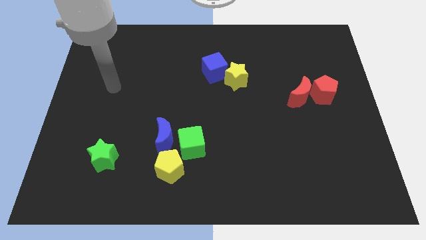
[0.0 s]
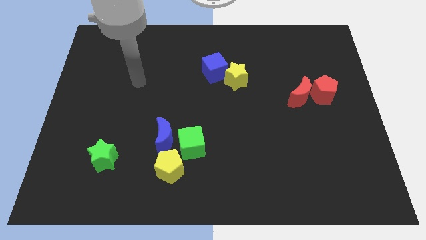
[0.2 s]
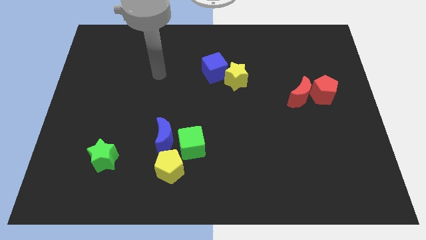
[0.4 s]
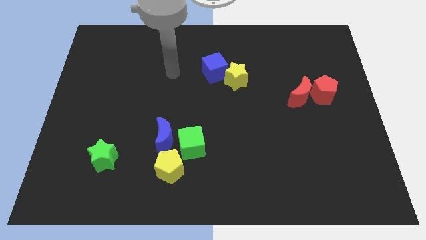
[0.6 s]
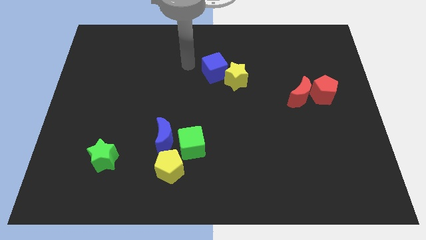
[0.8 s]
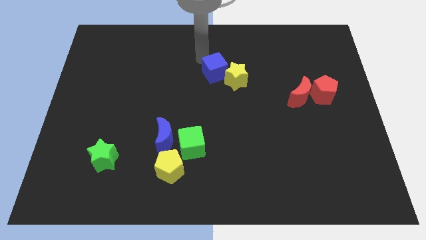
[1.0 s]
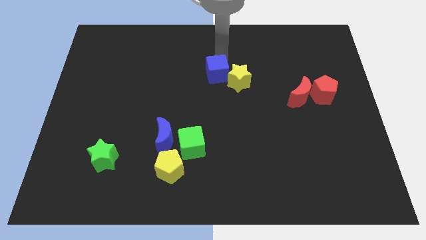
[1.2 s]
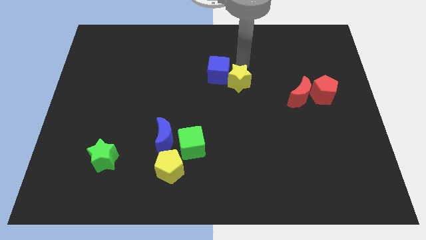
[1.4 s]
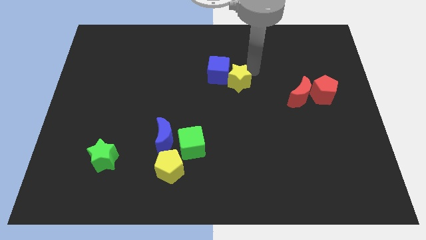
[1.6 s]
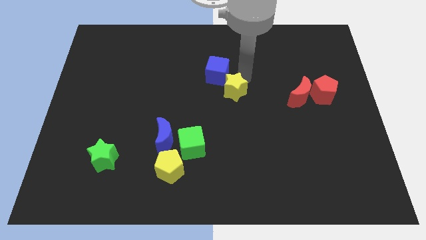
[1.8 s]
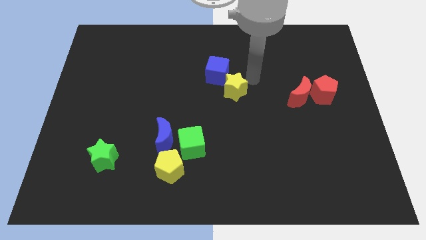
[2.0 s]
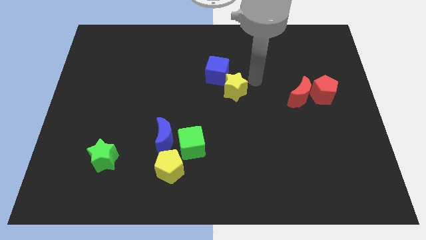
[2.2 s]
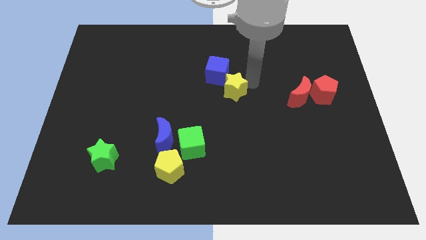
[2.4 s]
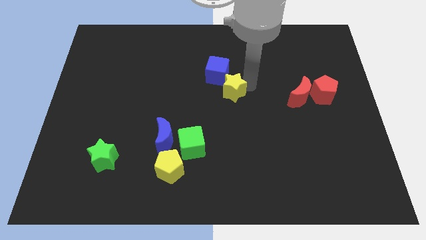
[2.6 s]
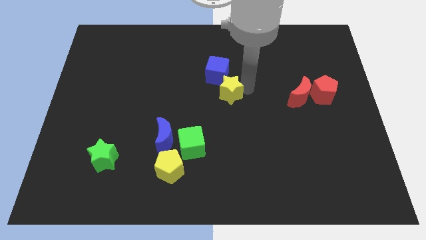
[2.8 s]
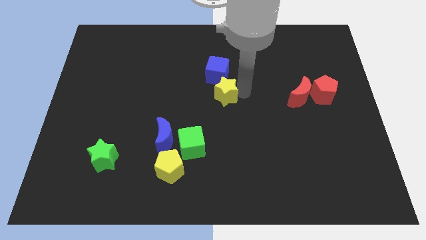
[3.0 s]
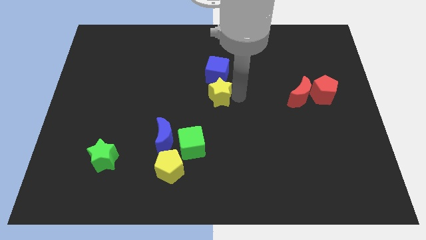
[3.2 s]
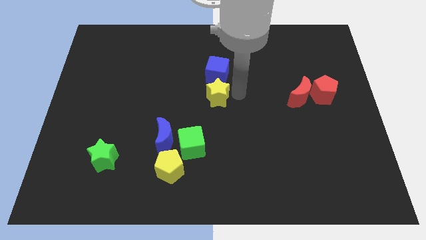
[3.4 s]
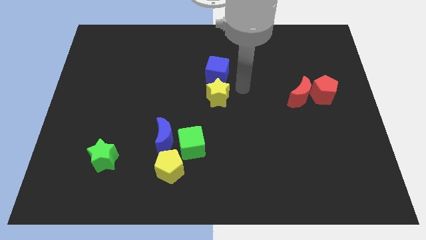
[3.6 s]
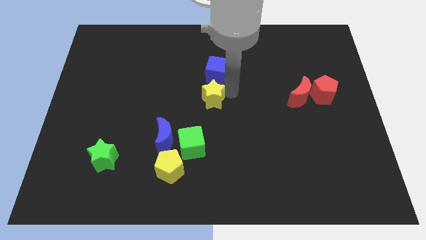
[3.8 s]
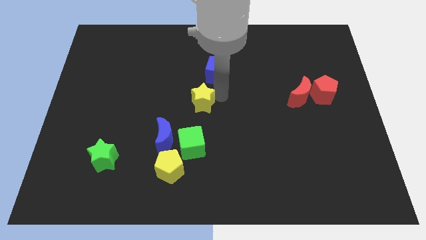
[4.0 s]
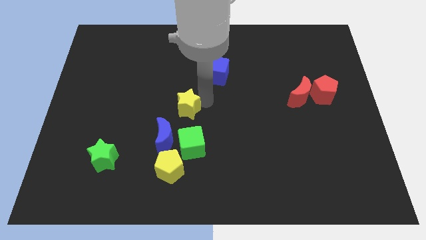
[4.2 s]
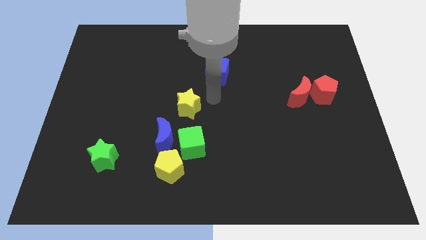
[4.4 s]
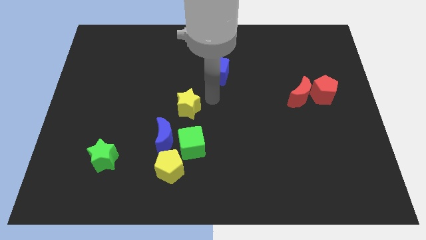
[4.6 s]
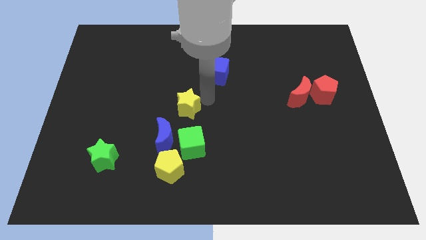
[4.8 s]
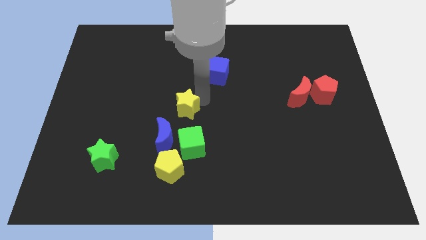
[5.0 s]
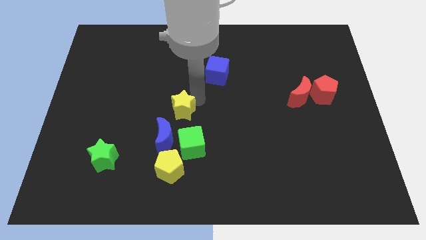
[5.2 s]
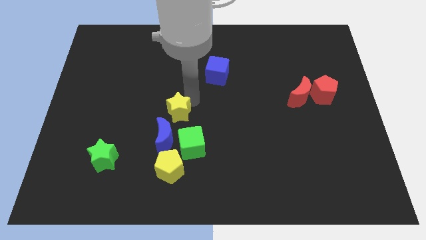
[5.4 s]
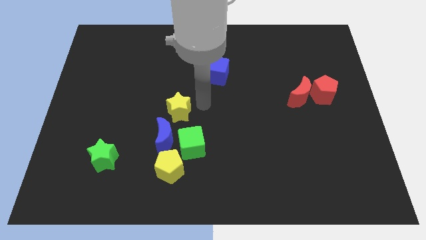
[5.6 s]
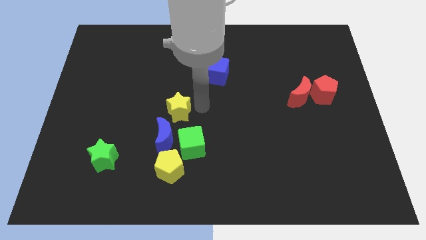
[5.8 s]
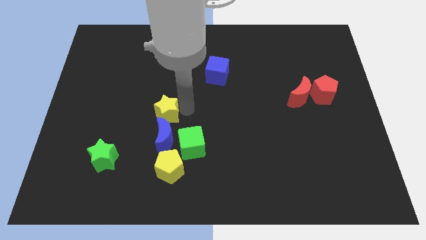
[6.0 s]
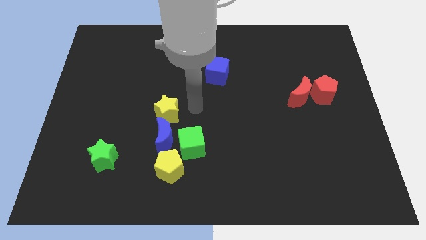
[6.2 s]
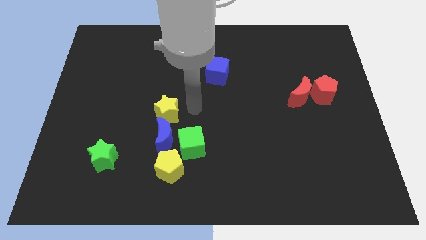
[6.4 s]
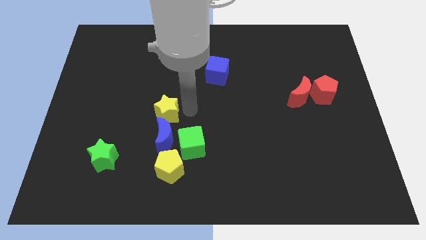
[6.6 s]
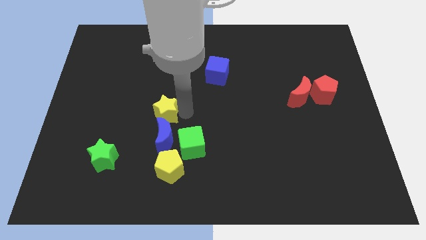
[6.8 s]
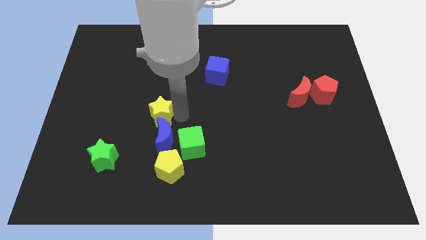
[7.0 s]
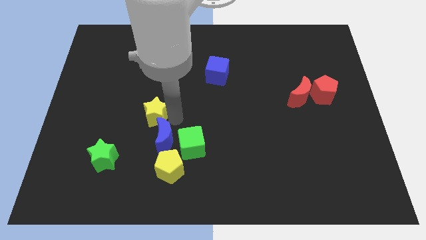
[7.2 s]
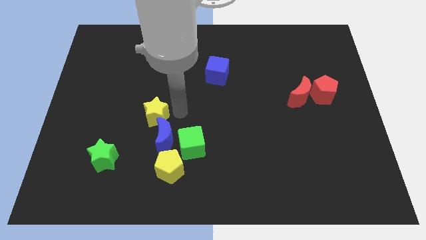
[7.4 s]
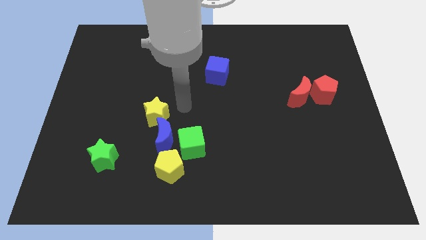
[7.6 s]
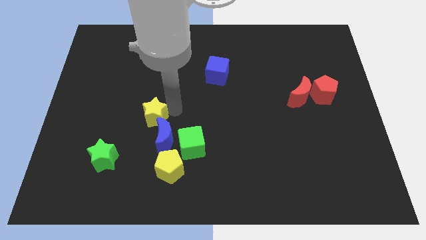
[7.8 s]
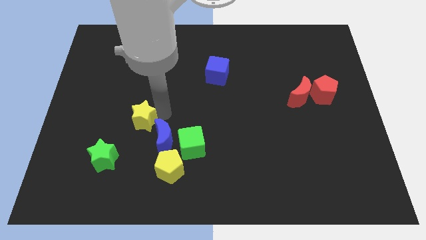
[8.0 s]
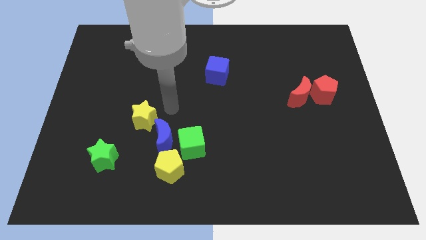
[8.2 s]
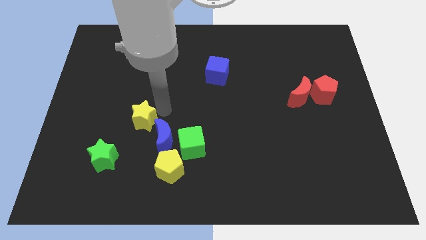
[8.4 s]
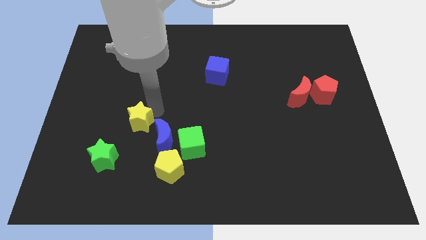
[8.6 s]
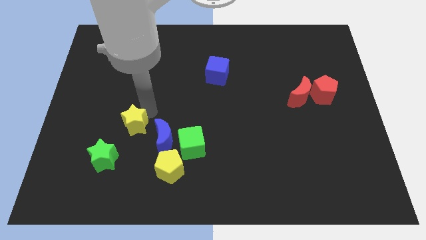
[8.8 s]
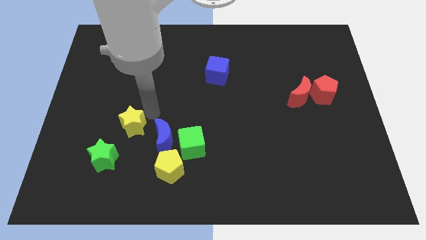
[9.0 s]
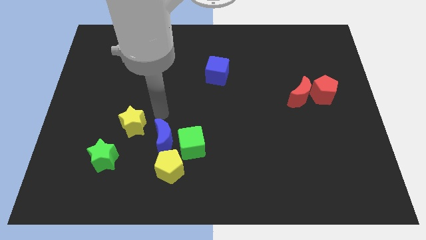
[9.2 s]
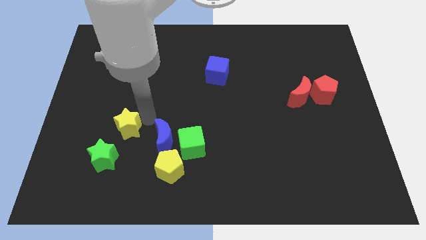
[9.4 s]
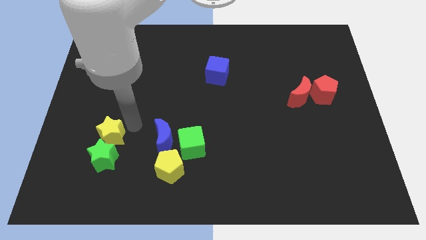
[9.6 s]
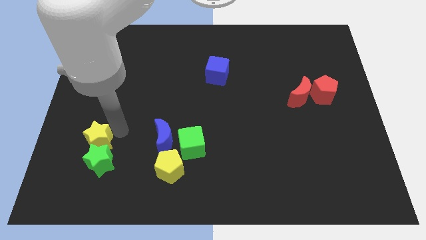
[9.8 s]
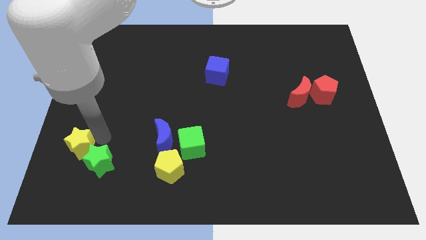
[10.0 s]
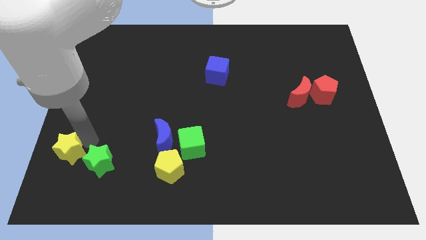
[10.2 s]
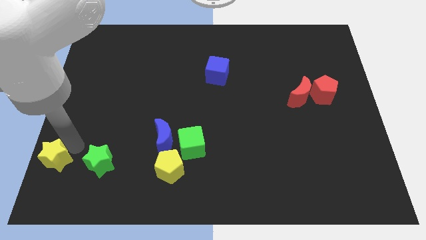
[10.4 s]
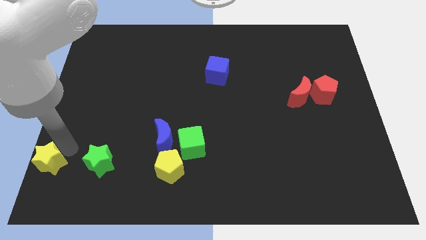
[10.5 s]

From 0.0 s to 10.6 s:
push the yellow star to the bottom left of the board

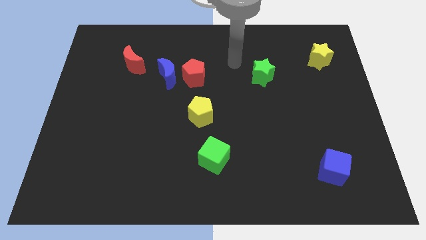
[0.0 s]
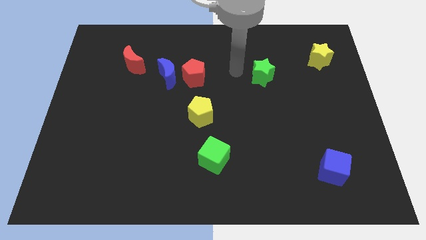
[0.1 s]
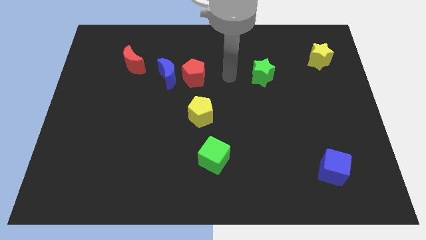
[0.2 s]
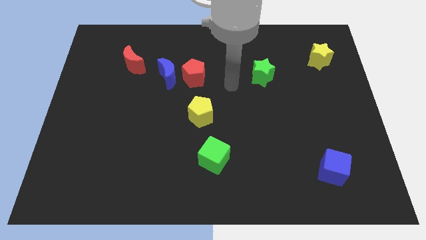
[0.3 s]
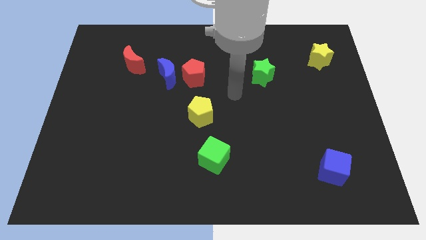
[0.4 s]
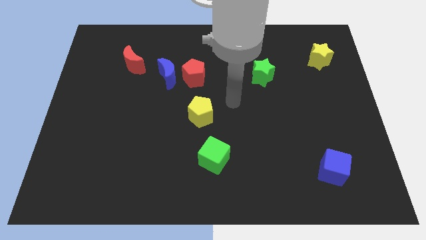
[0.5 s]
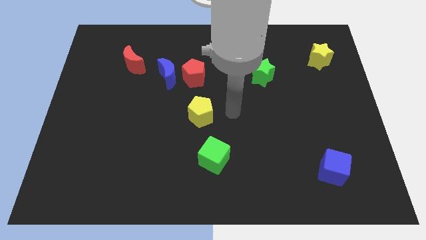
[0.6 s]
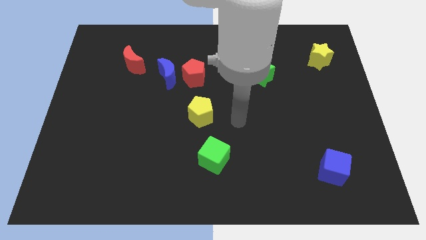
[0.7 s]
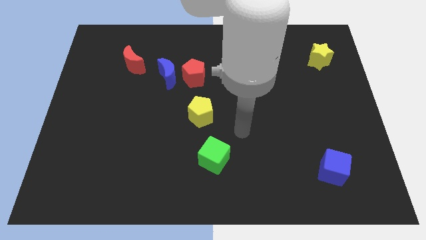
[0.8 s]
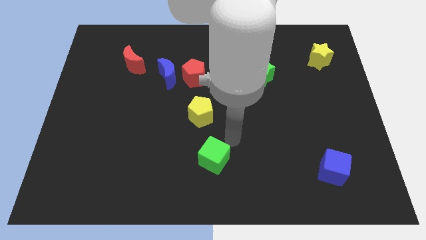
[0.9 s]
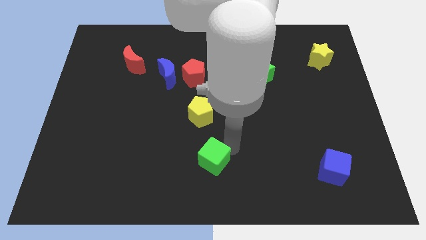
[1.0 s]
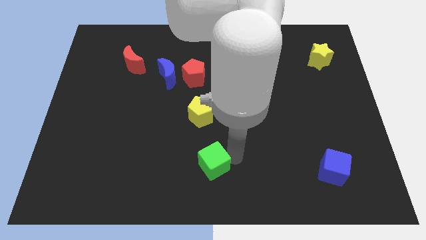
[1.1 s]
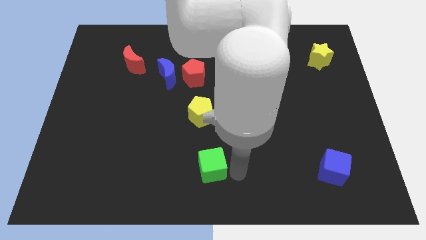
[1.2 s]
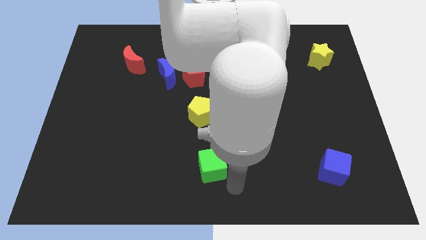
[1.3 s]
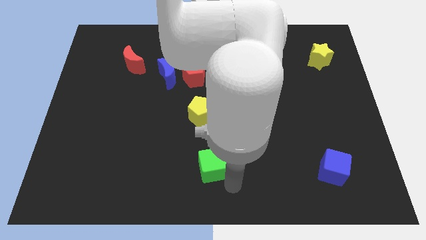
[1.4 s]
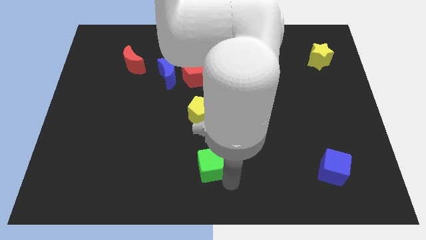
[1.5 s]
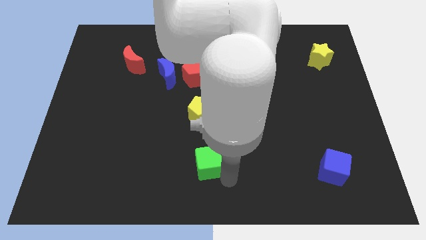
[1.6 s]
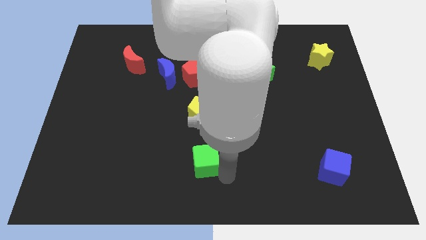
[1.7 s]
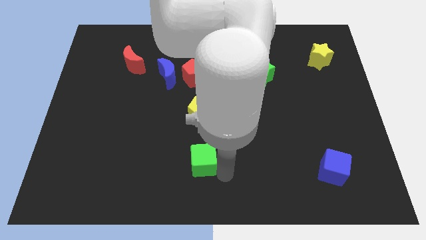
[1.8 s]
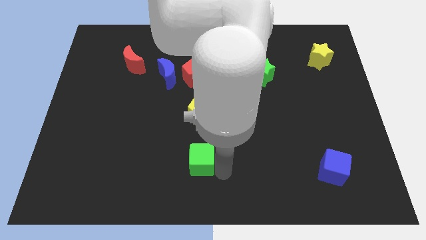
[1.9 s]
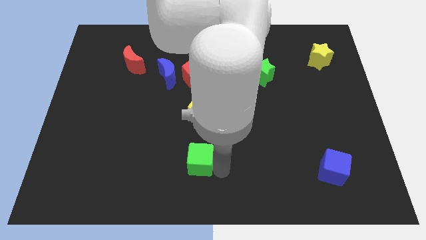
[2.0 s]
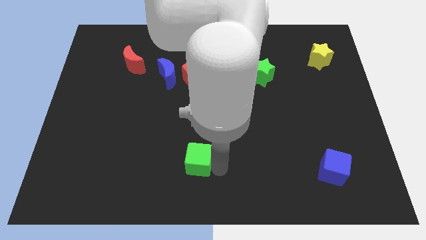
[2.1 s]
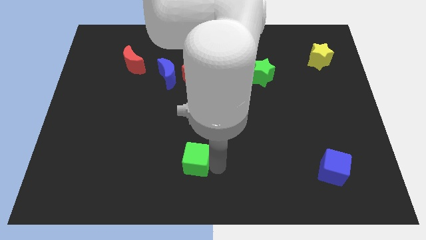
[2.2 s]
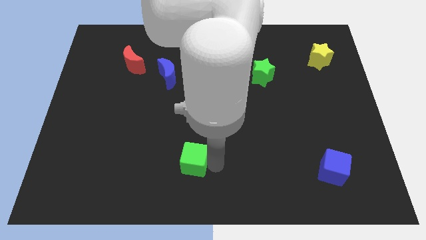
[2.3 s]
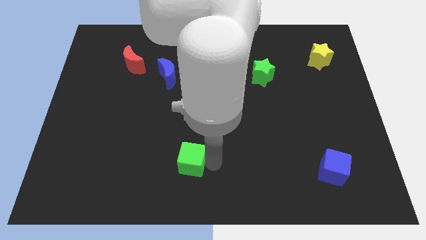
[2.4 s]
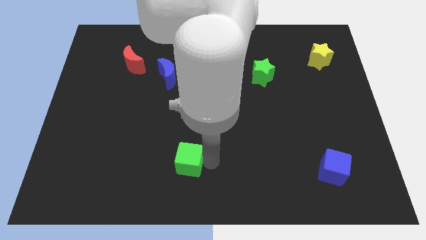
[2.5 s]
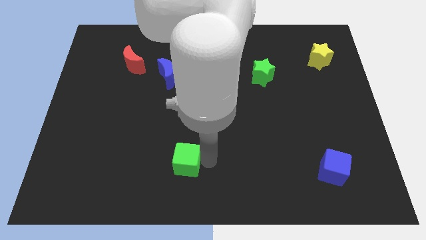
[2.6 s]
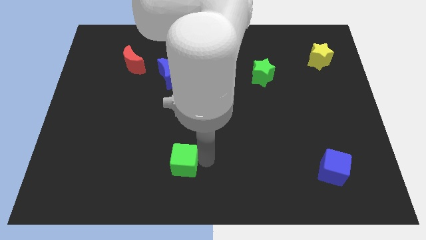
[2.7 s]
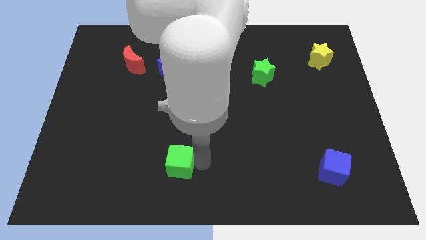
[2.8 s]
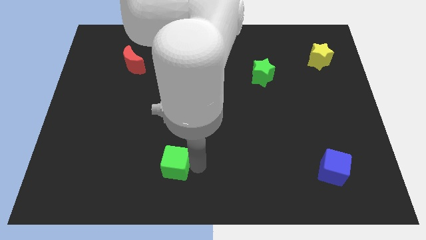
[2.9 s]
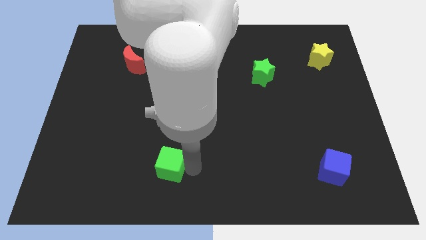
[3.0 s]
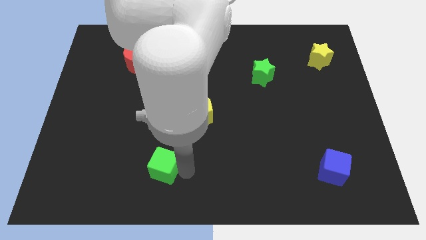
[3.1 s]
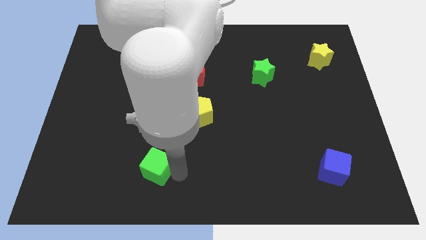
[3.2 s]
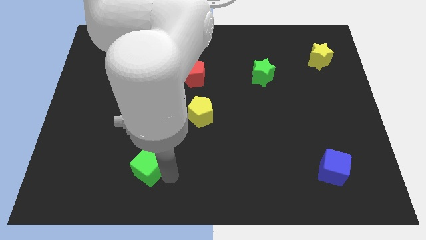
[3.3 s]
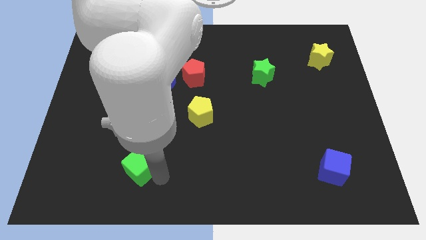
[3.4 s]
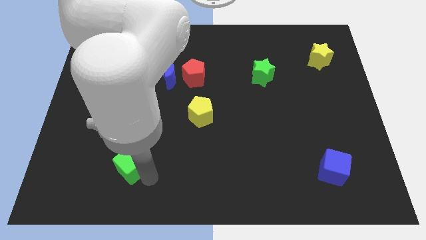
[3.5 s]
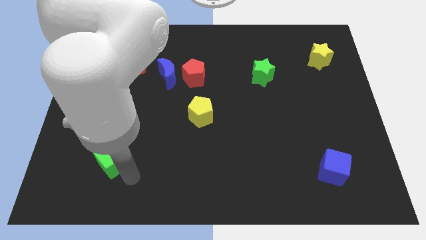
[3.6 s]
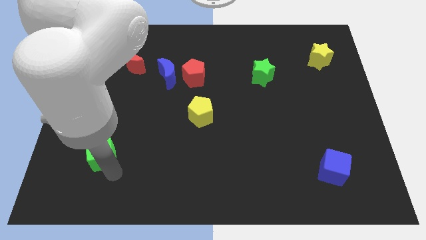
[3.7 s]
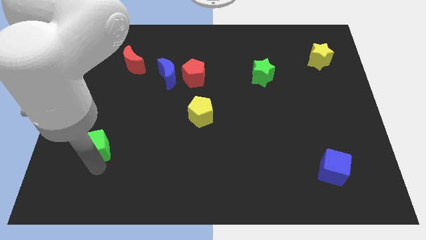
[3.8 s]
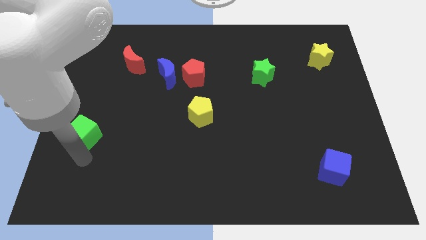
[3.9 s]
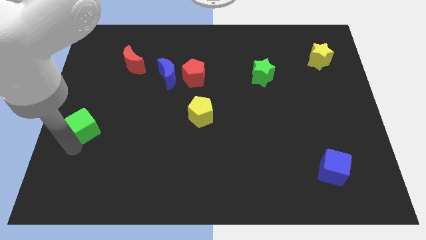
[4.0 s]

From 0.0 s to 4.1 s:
move the green cube to the left side
